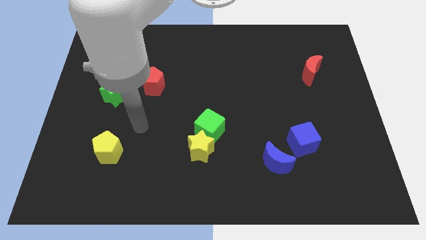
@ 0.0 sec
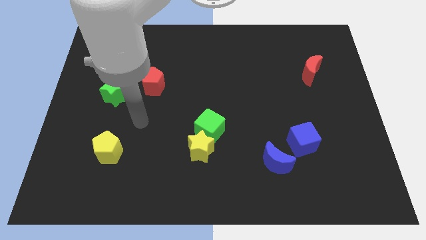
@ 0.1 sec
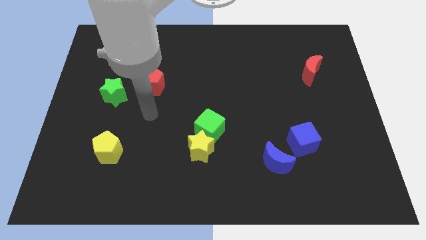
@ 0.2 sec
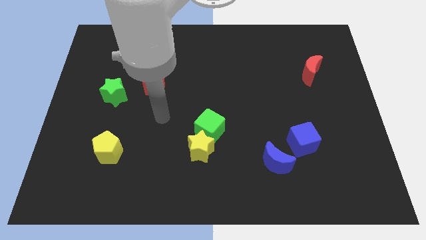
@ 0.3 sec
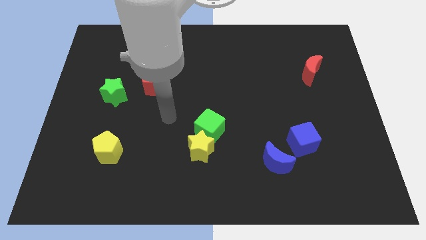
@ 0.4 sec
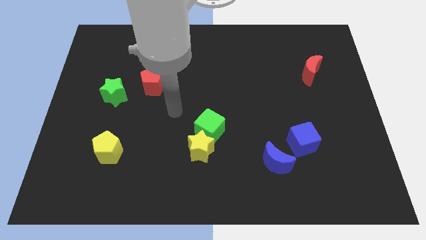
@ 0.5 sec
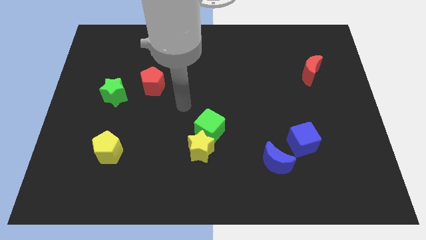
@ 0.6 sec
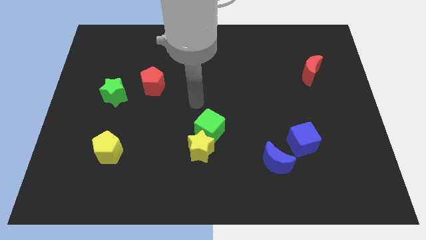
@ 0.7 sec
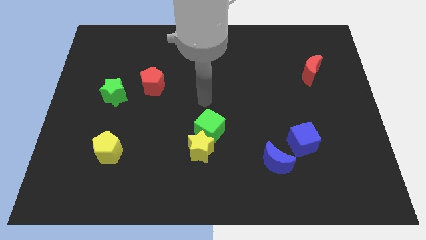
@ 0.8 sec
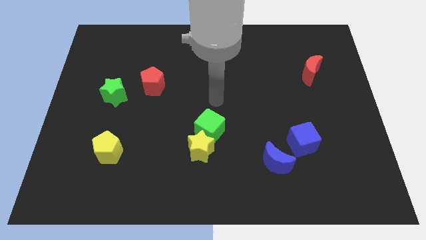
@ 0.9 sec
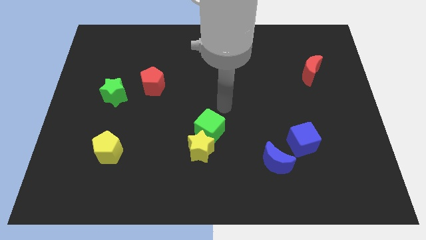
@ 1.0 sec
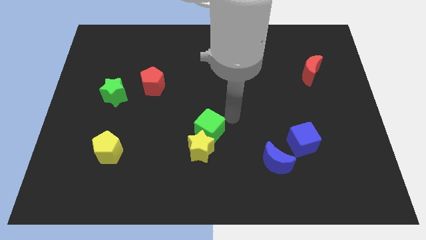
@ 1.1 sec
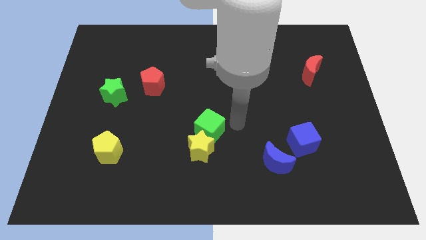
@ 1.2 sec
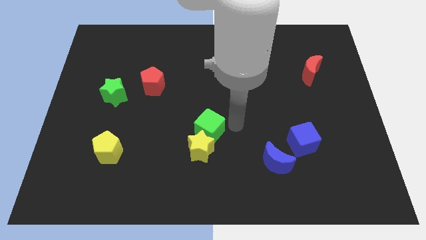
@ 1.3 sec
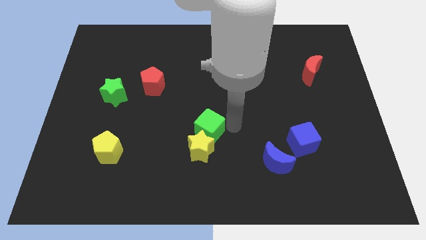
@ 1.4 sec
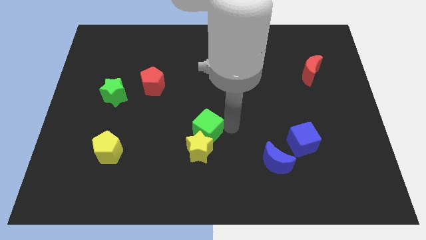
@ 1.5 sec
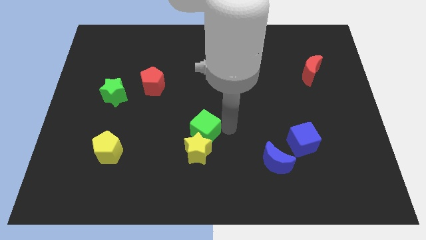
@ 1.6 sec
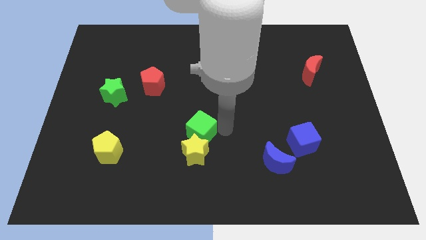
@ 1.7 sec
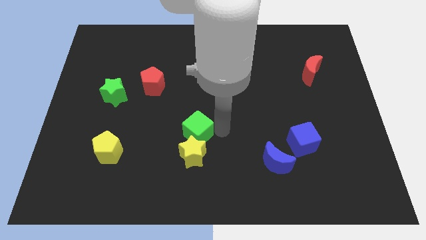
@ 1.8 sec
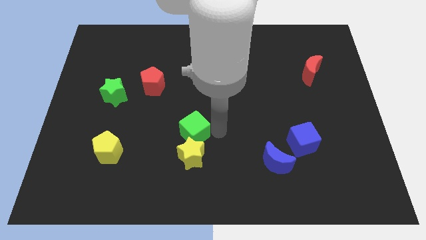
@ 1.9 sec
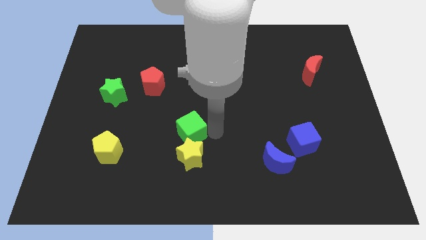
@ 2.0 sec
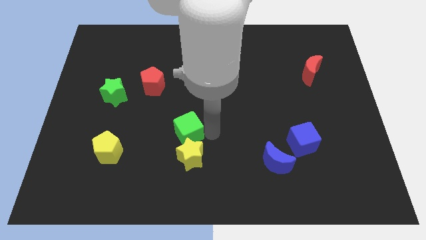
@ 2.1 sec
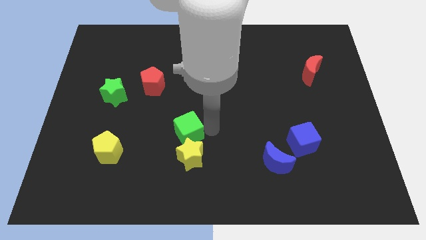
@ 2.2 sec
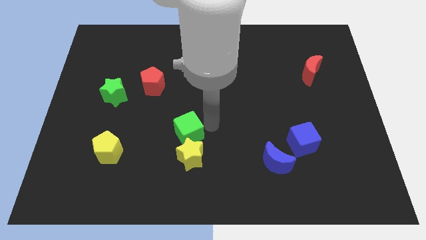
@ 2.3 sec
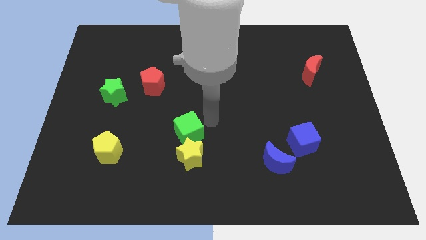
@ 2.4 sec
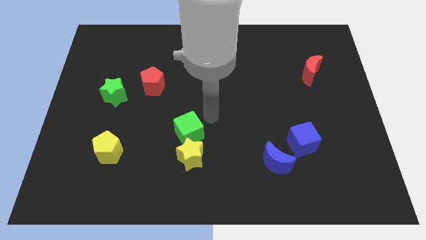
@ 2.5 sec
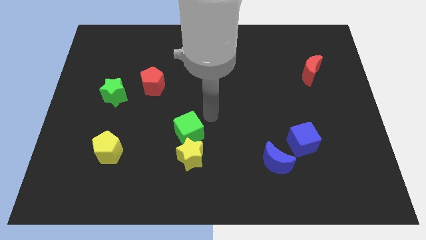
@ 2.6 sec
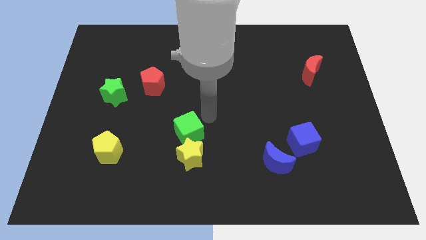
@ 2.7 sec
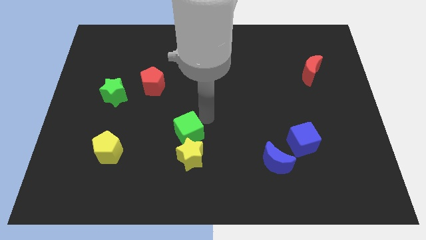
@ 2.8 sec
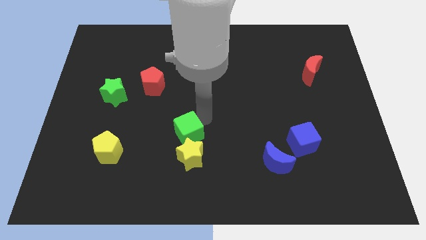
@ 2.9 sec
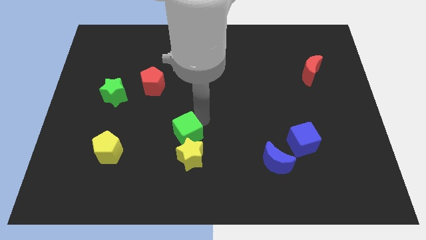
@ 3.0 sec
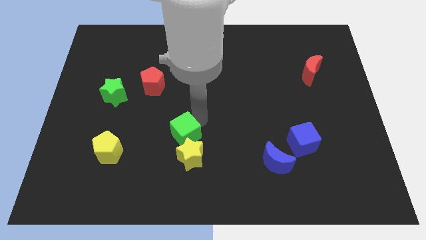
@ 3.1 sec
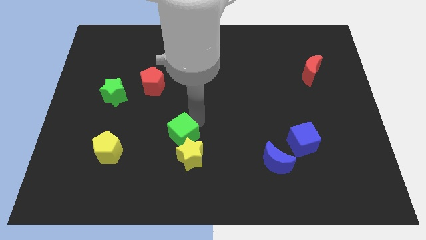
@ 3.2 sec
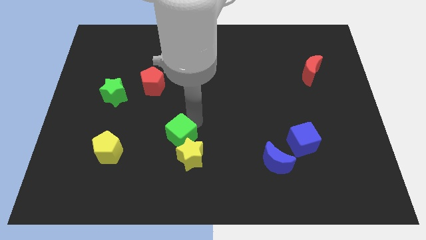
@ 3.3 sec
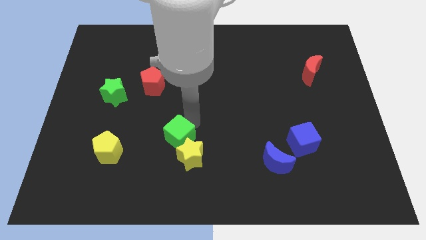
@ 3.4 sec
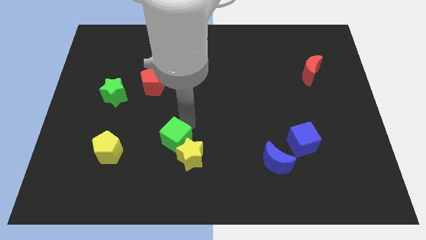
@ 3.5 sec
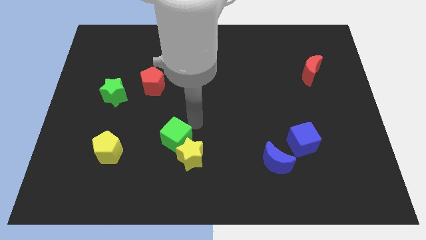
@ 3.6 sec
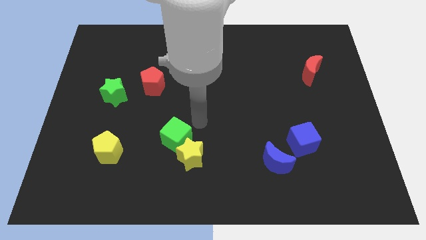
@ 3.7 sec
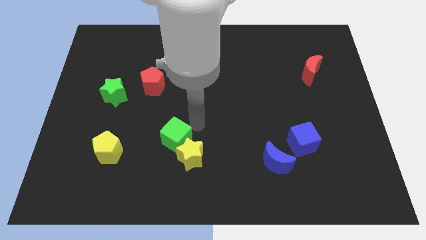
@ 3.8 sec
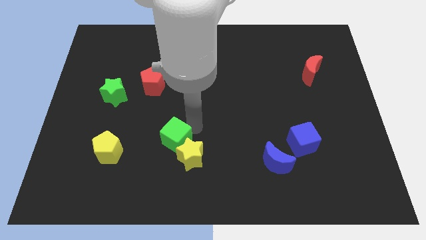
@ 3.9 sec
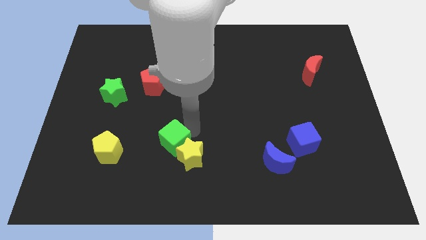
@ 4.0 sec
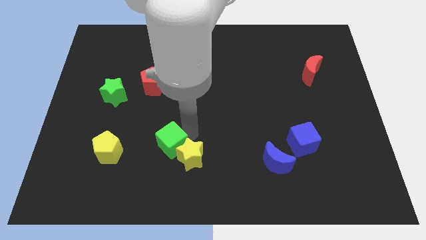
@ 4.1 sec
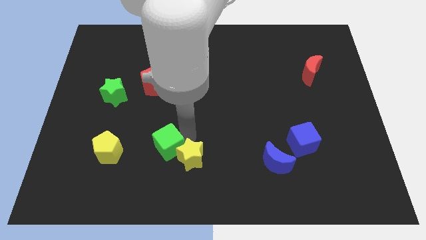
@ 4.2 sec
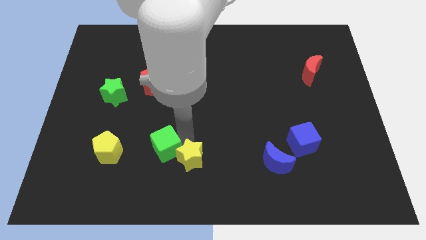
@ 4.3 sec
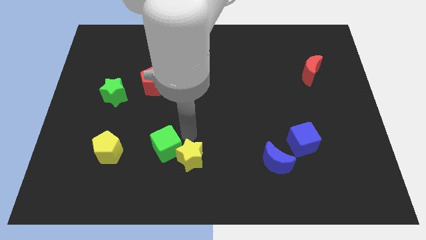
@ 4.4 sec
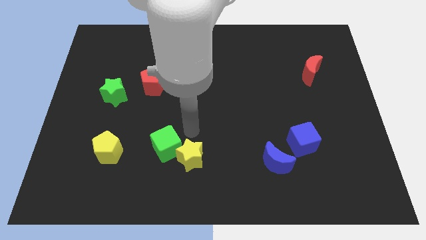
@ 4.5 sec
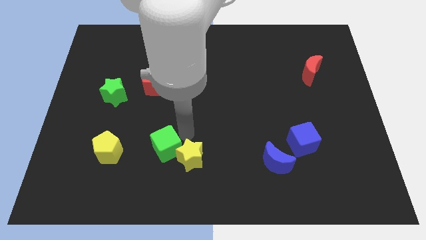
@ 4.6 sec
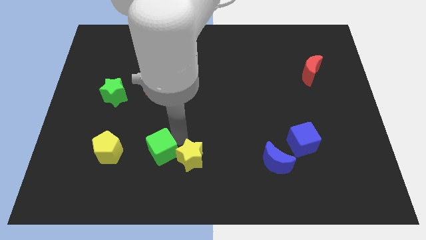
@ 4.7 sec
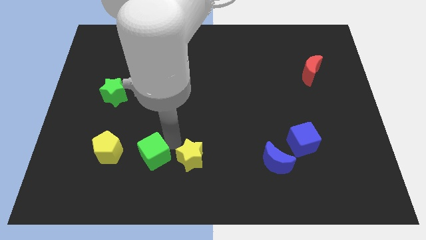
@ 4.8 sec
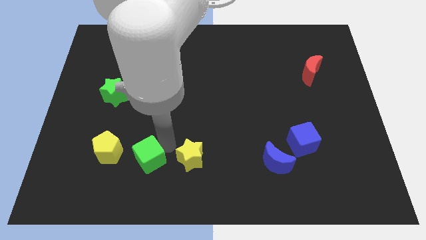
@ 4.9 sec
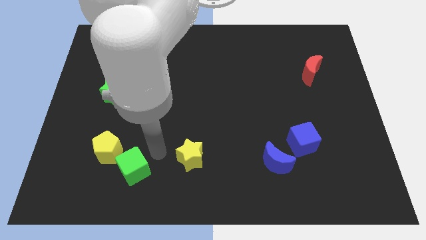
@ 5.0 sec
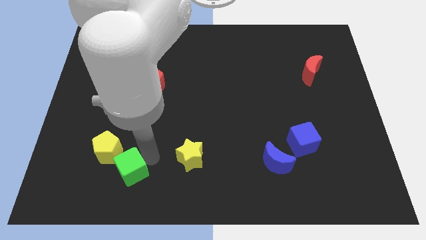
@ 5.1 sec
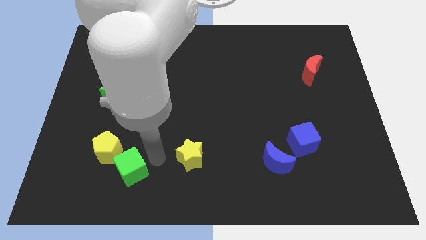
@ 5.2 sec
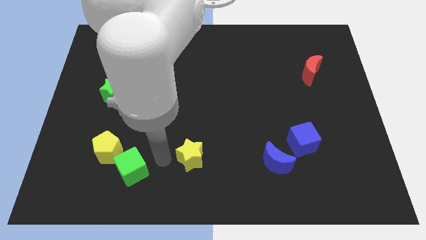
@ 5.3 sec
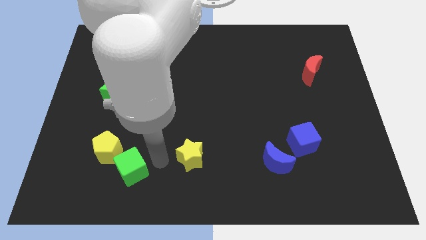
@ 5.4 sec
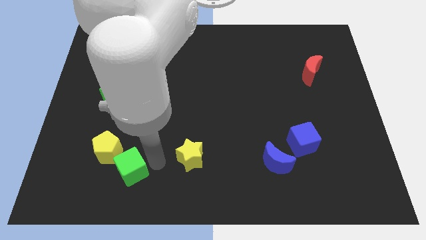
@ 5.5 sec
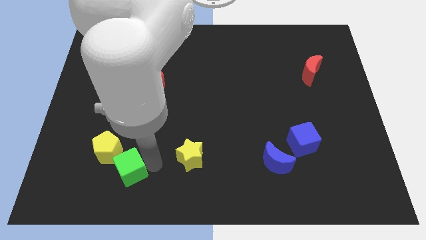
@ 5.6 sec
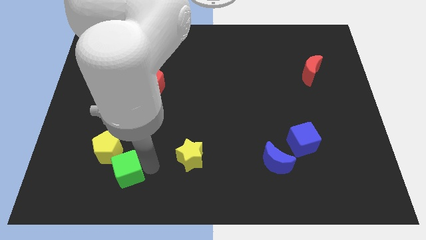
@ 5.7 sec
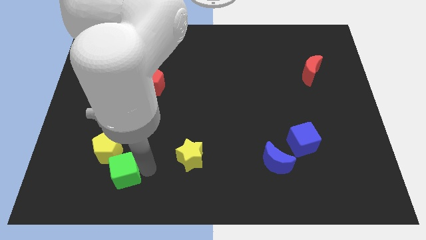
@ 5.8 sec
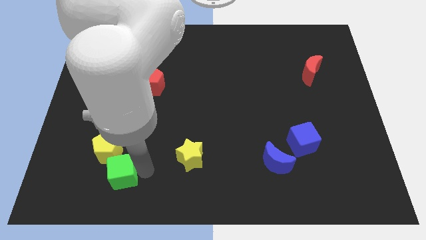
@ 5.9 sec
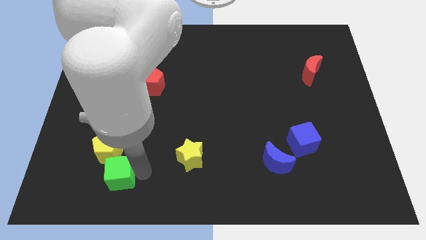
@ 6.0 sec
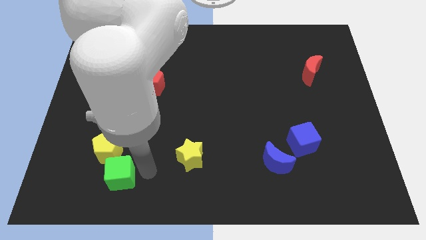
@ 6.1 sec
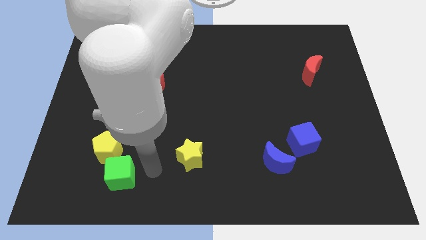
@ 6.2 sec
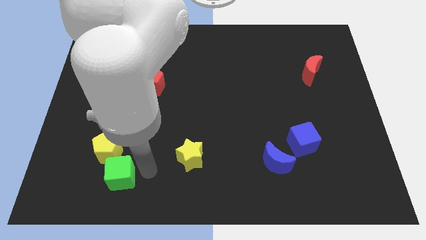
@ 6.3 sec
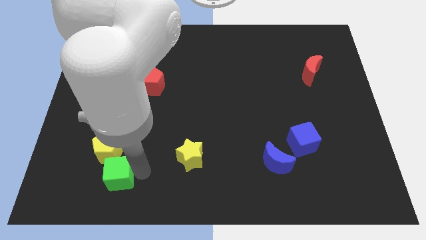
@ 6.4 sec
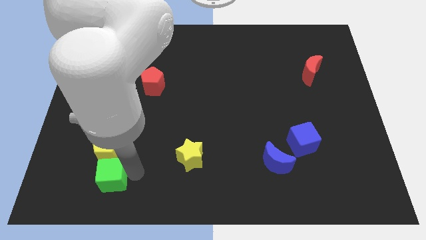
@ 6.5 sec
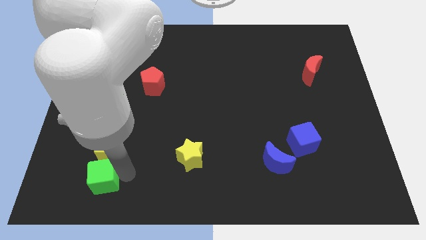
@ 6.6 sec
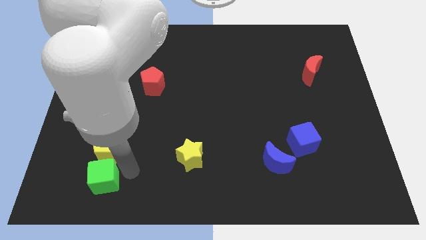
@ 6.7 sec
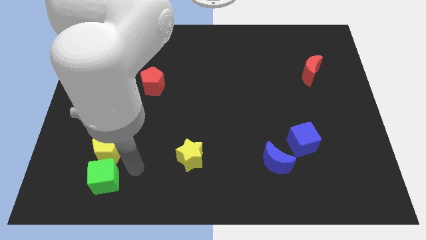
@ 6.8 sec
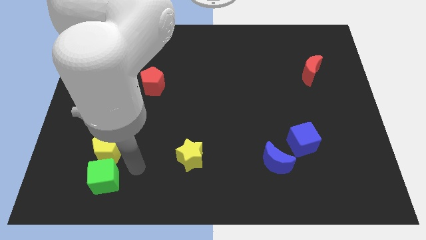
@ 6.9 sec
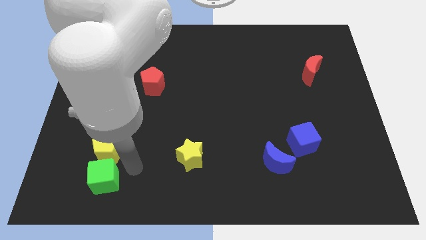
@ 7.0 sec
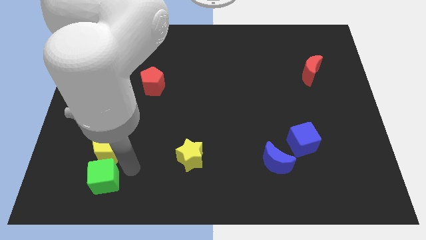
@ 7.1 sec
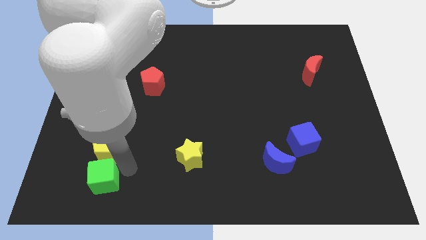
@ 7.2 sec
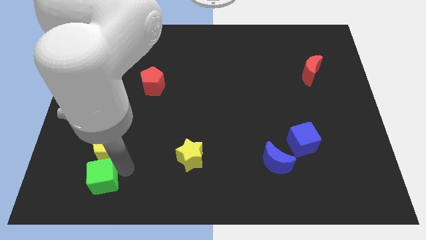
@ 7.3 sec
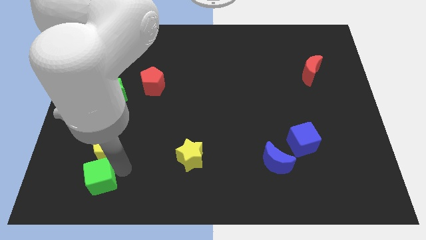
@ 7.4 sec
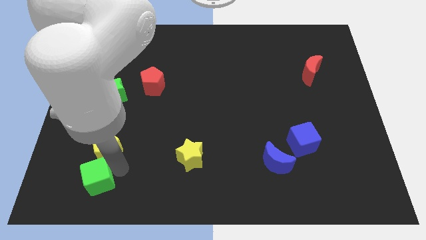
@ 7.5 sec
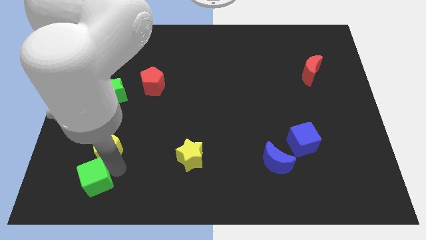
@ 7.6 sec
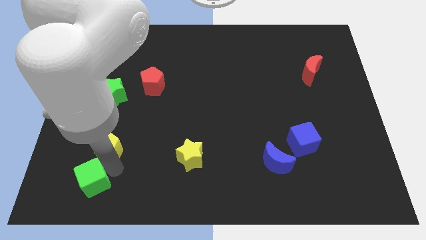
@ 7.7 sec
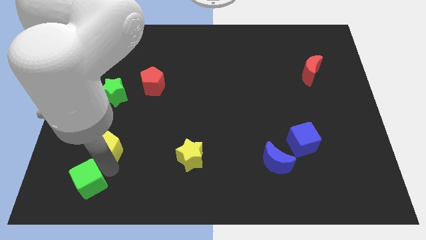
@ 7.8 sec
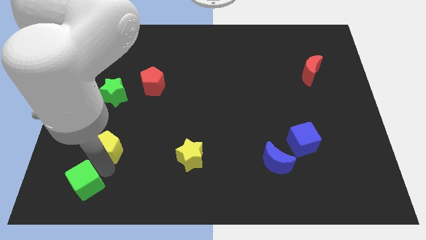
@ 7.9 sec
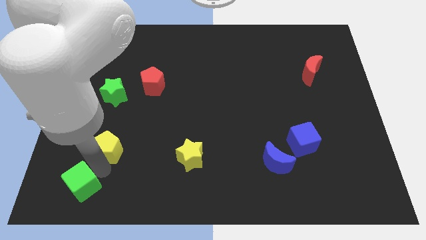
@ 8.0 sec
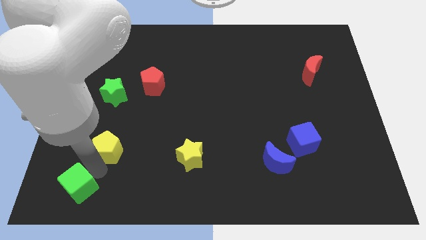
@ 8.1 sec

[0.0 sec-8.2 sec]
move the green cube to the lower left corner
